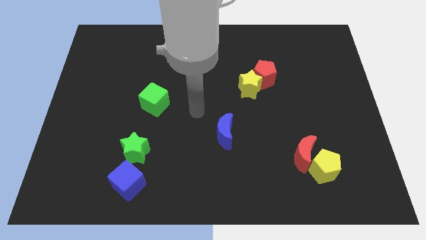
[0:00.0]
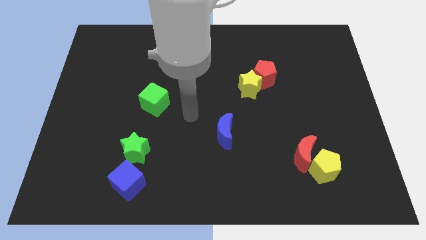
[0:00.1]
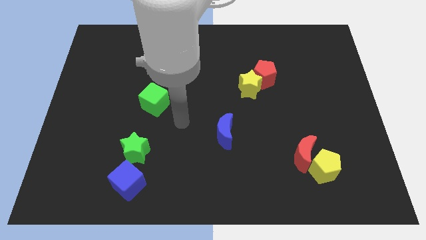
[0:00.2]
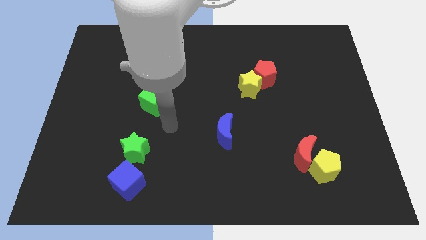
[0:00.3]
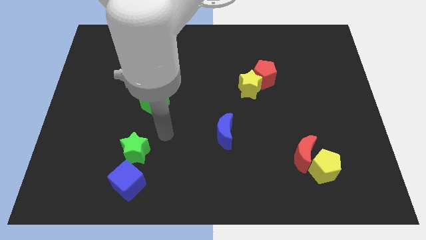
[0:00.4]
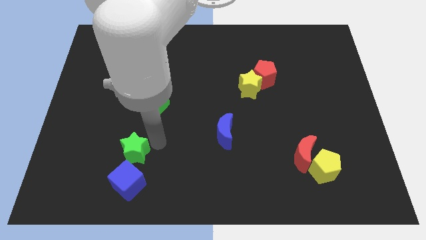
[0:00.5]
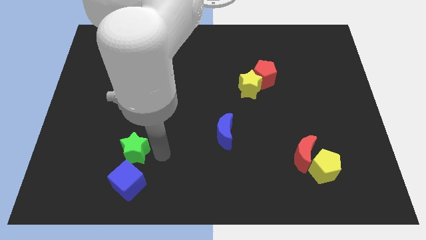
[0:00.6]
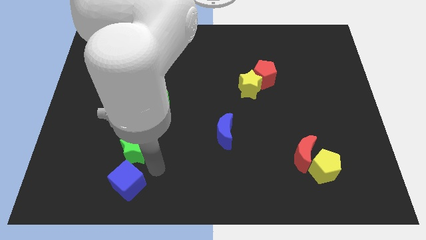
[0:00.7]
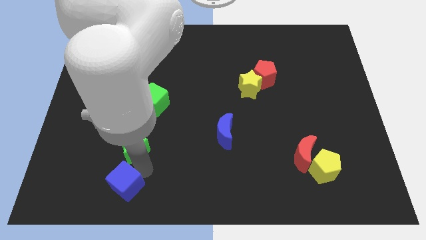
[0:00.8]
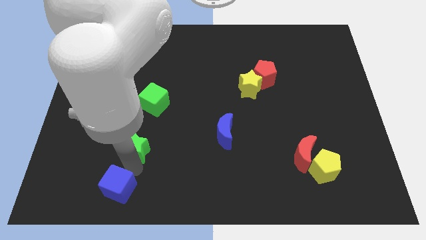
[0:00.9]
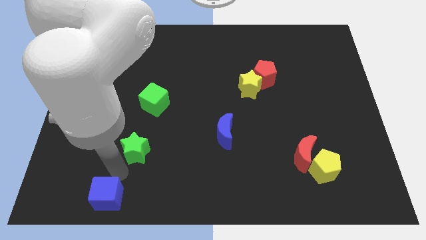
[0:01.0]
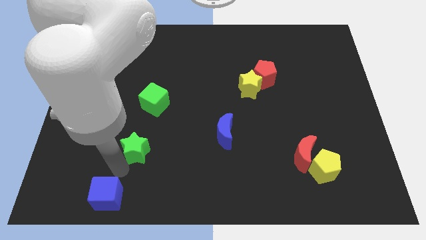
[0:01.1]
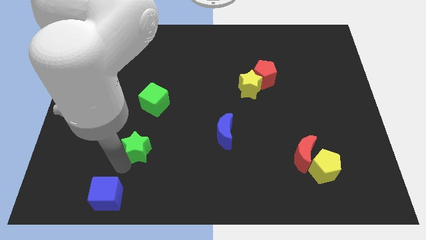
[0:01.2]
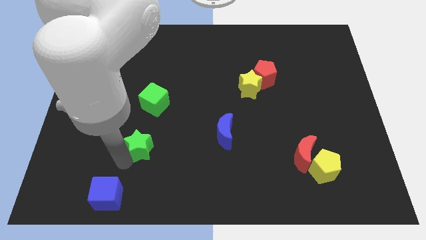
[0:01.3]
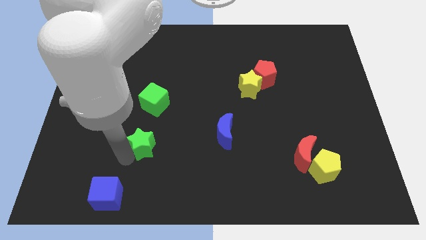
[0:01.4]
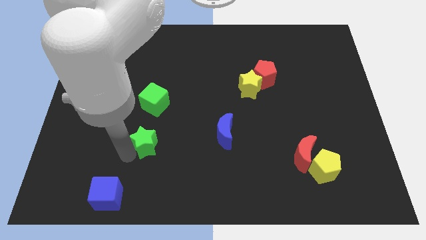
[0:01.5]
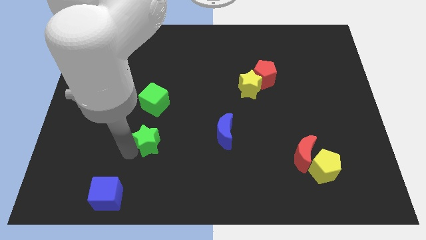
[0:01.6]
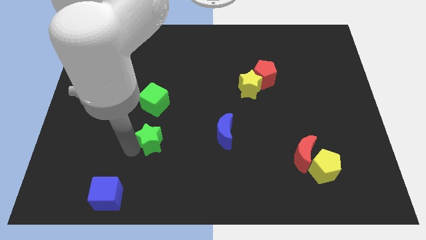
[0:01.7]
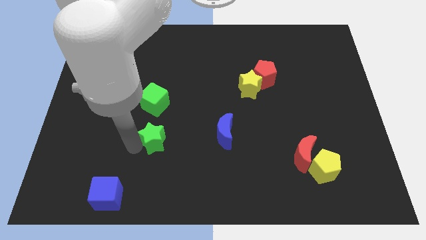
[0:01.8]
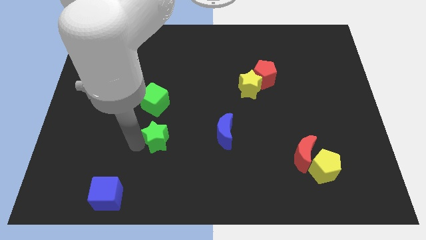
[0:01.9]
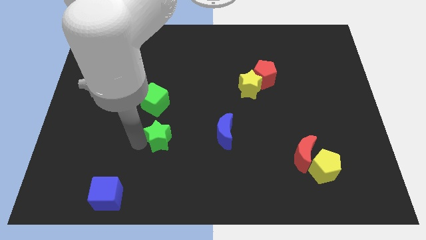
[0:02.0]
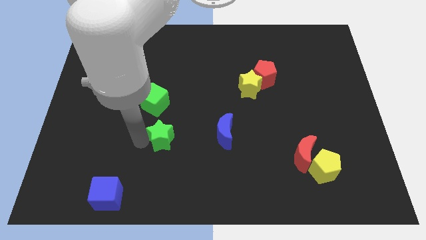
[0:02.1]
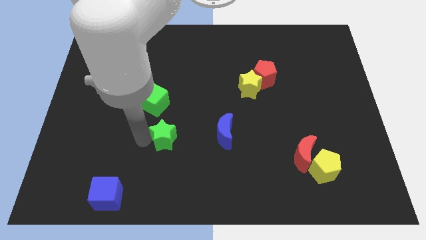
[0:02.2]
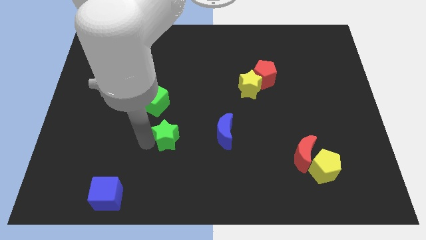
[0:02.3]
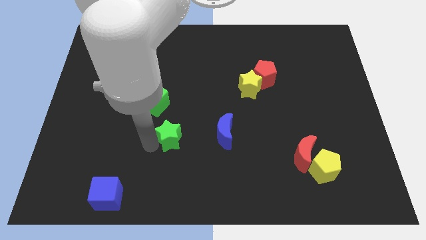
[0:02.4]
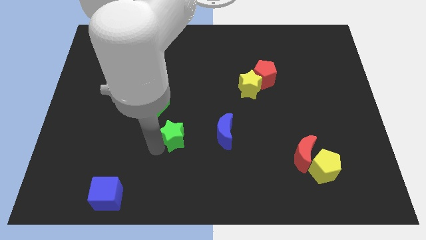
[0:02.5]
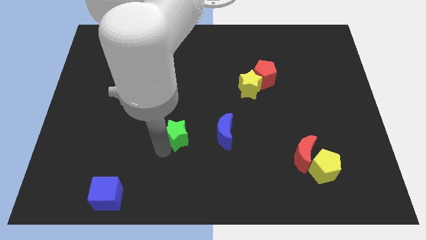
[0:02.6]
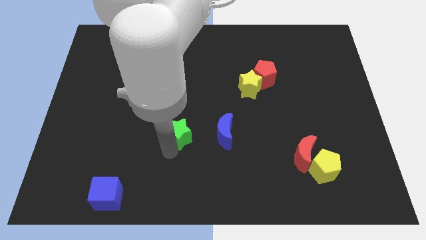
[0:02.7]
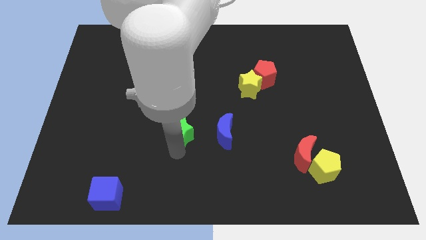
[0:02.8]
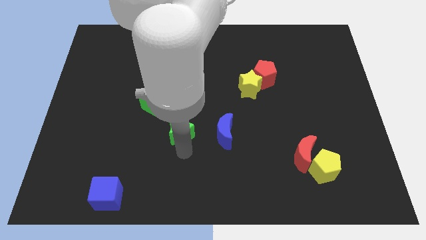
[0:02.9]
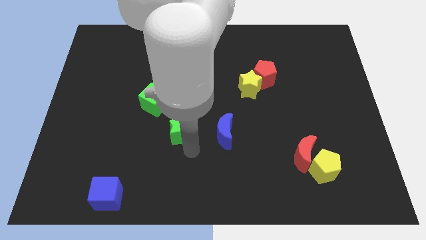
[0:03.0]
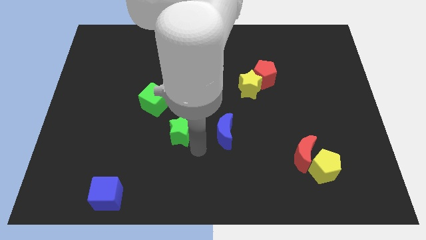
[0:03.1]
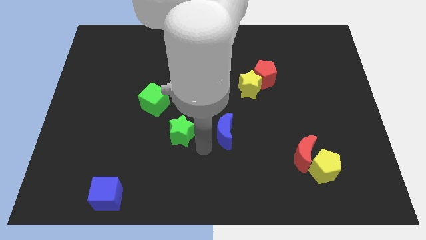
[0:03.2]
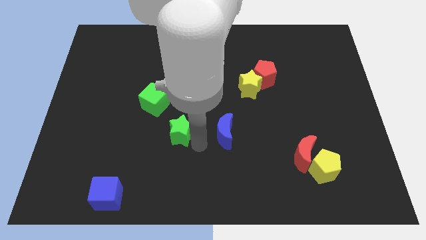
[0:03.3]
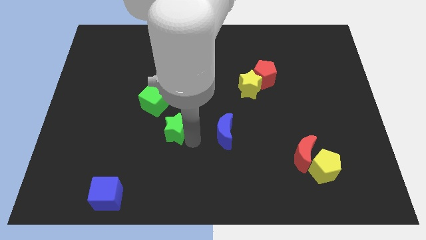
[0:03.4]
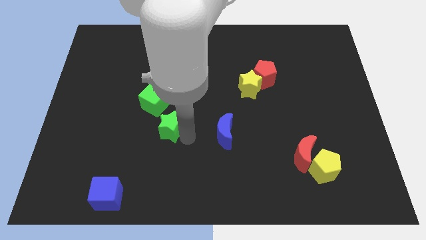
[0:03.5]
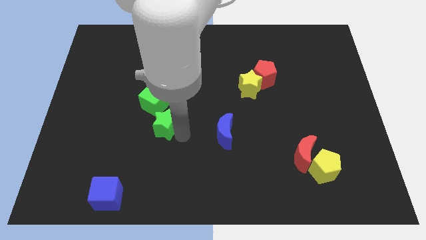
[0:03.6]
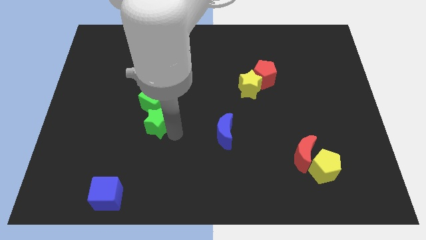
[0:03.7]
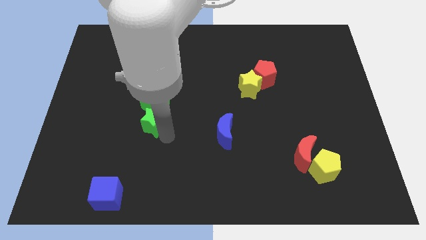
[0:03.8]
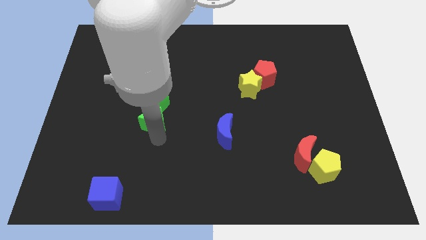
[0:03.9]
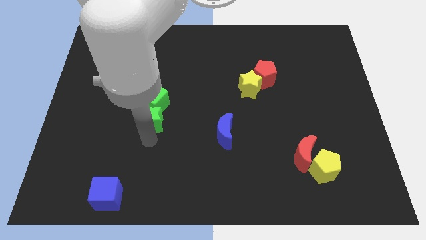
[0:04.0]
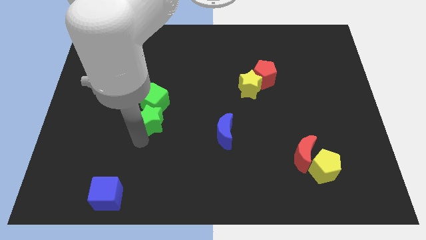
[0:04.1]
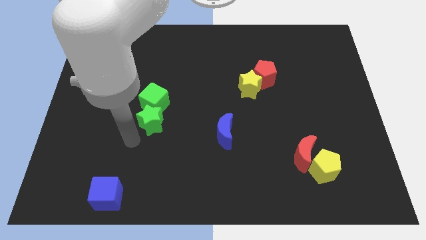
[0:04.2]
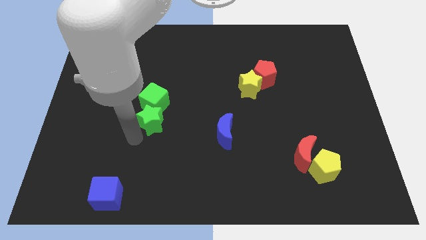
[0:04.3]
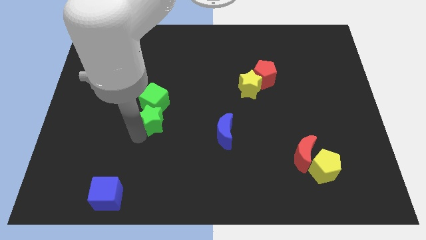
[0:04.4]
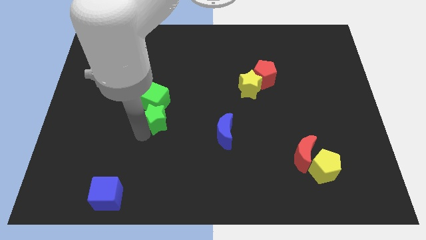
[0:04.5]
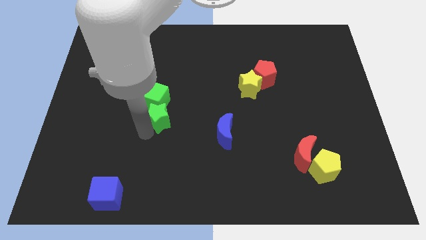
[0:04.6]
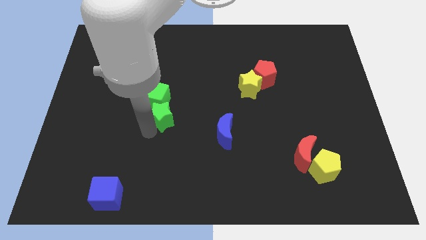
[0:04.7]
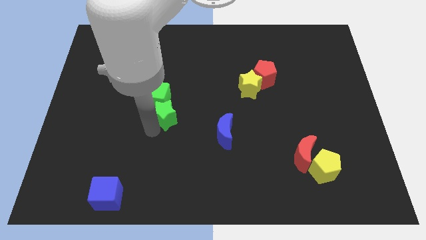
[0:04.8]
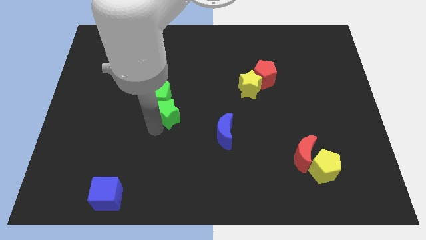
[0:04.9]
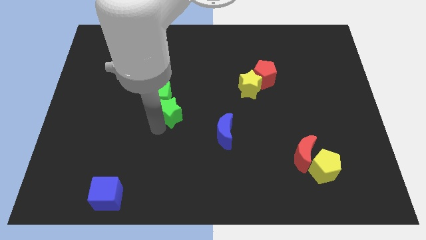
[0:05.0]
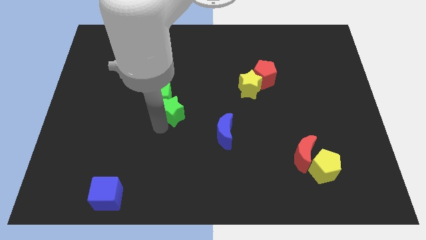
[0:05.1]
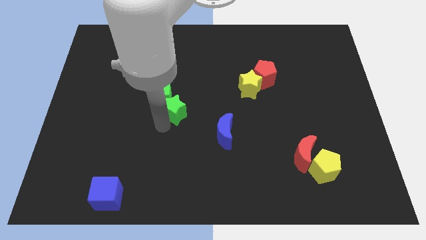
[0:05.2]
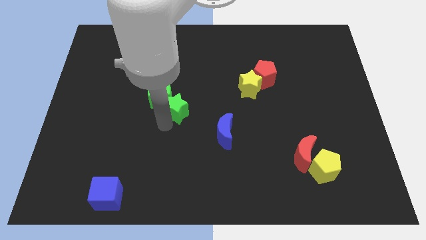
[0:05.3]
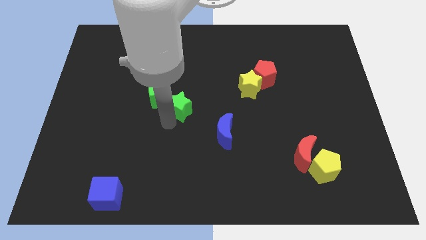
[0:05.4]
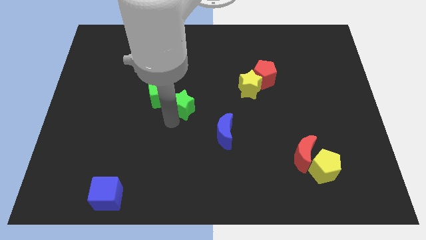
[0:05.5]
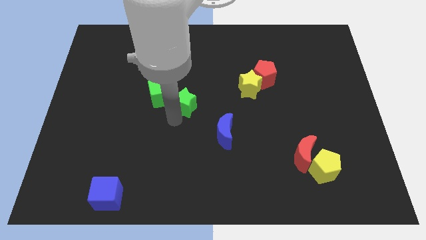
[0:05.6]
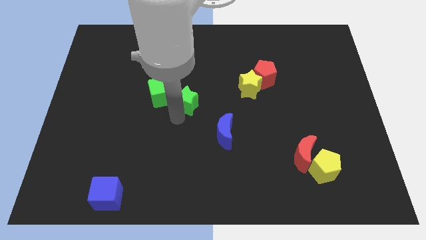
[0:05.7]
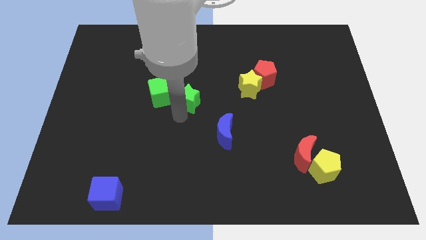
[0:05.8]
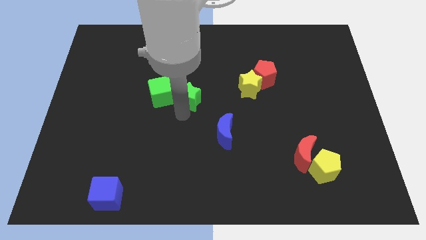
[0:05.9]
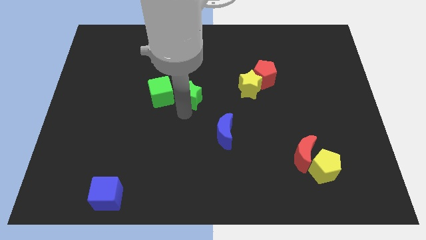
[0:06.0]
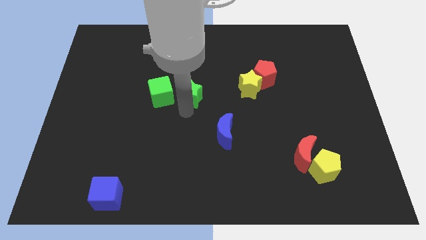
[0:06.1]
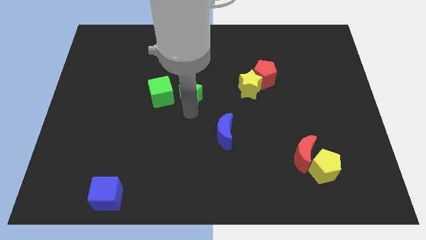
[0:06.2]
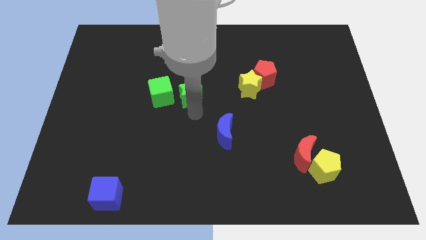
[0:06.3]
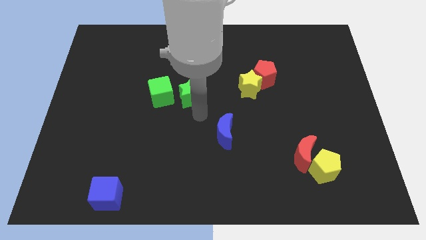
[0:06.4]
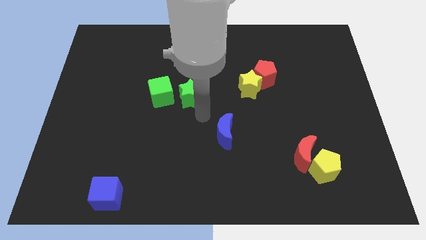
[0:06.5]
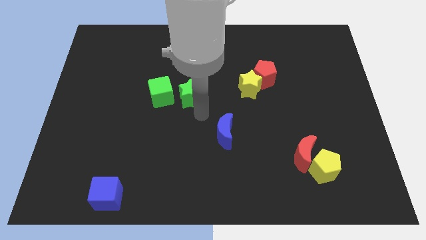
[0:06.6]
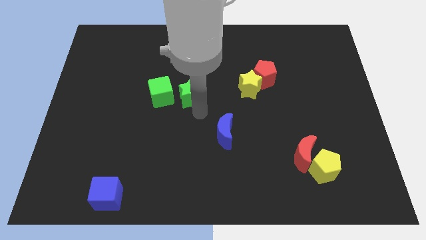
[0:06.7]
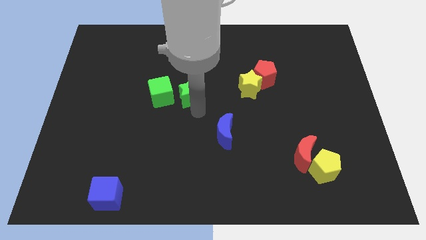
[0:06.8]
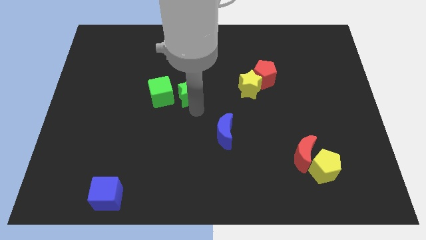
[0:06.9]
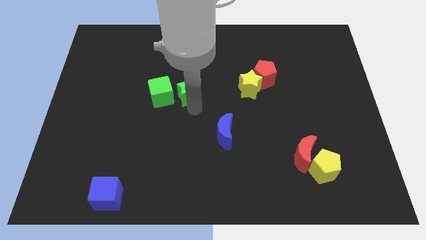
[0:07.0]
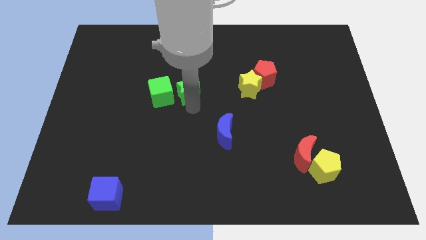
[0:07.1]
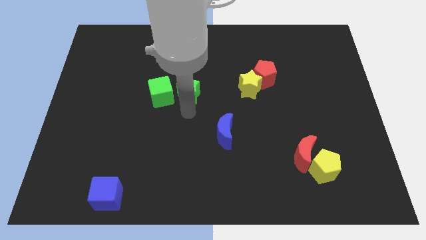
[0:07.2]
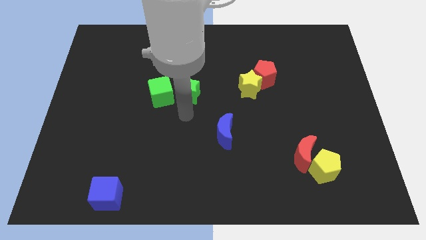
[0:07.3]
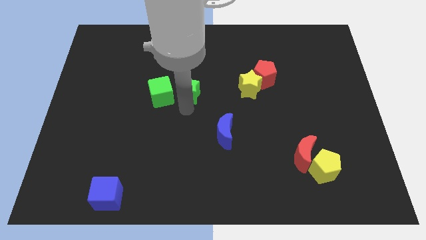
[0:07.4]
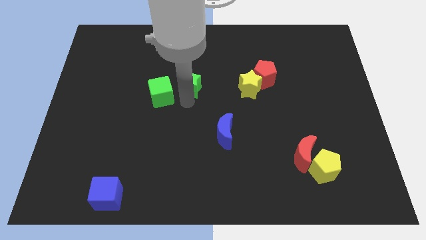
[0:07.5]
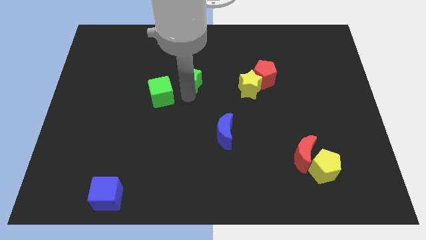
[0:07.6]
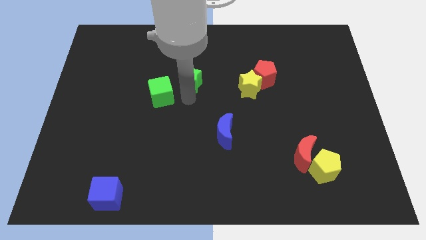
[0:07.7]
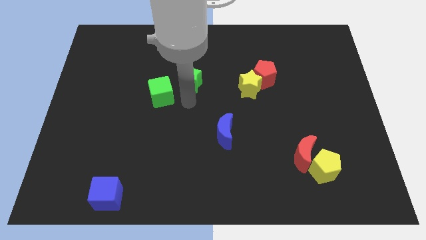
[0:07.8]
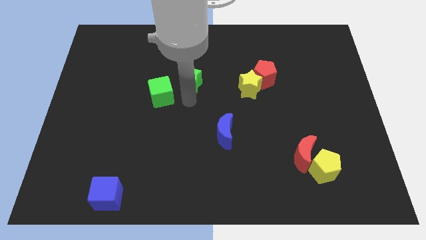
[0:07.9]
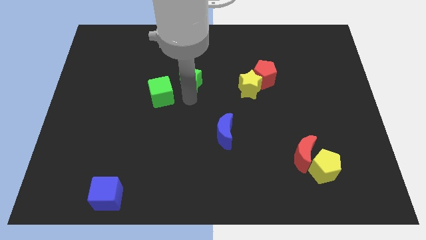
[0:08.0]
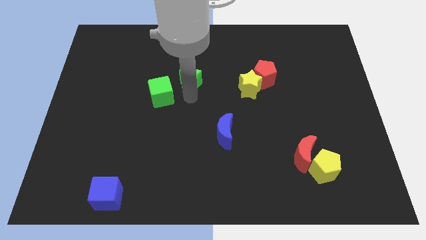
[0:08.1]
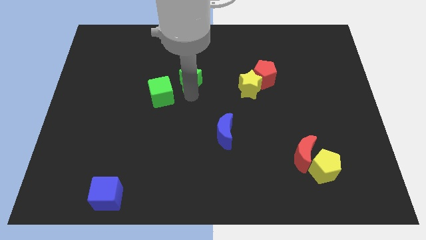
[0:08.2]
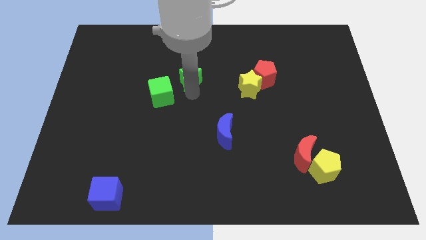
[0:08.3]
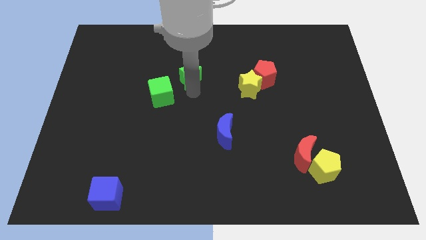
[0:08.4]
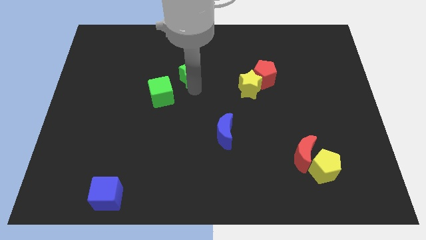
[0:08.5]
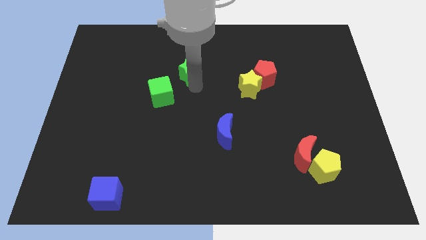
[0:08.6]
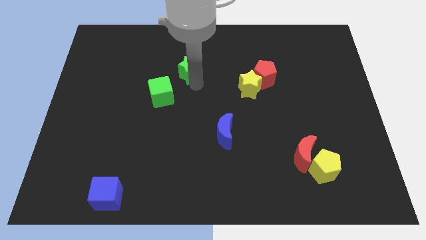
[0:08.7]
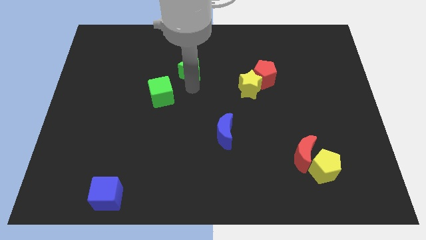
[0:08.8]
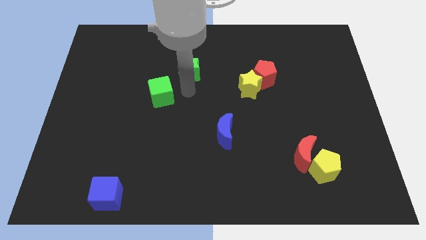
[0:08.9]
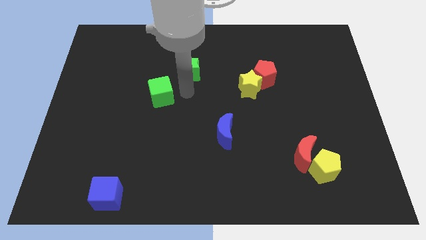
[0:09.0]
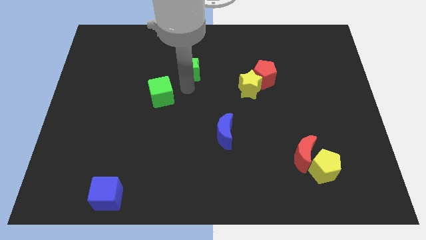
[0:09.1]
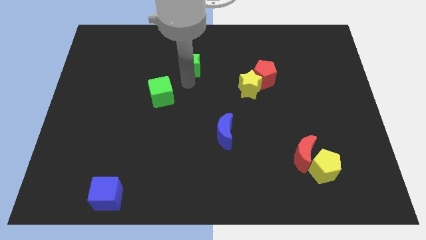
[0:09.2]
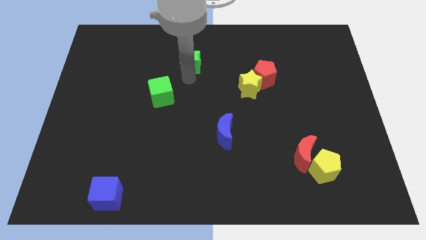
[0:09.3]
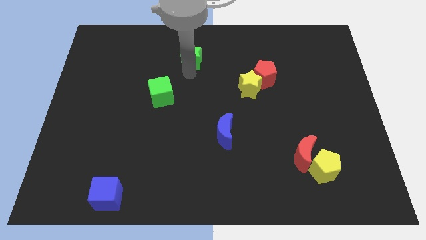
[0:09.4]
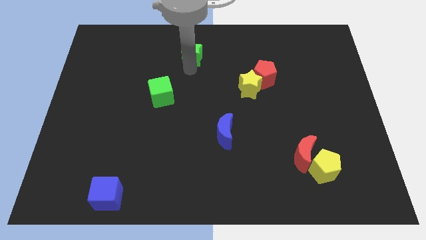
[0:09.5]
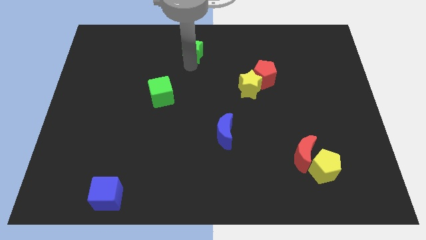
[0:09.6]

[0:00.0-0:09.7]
move the green star to the top side
